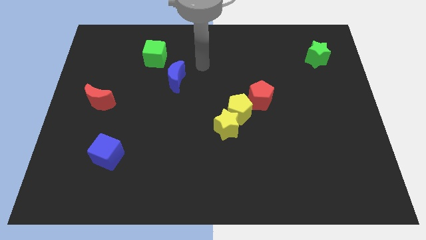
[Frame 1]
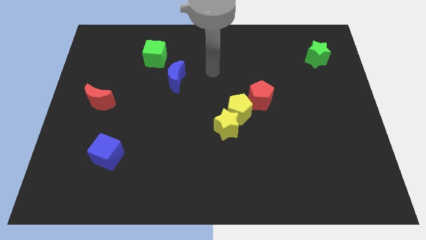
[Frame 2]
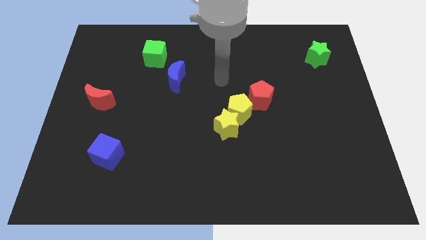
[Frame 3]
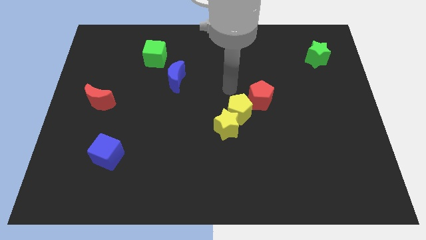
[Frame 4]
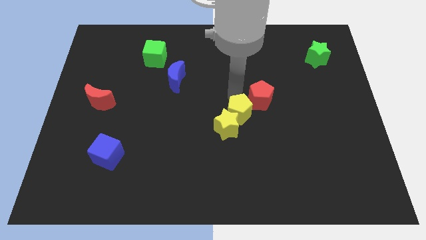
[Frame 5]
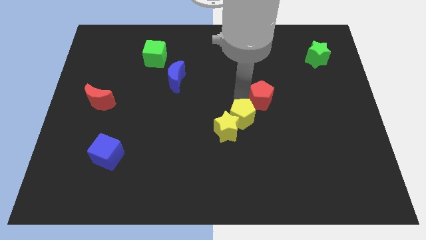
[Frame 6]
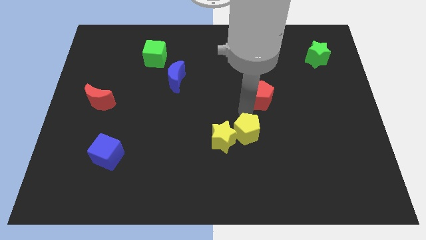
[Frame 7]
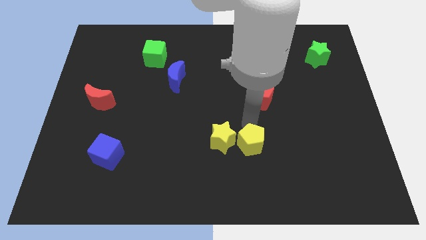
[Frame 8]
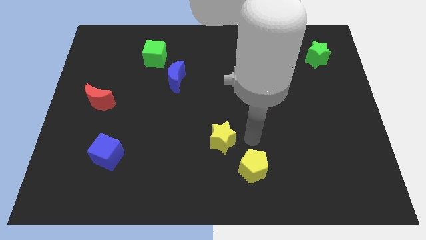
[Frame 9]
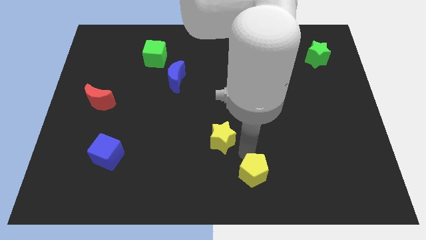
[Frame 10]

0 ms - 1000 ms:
move the yellow star away from the yellow pentagon

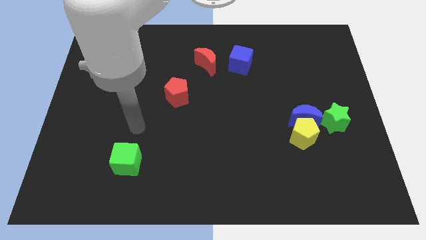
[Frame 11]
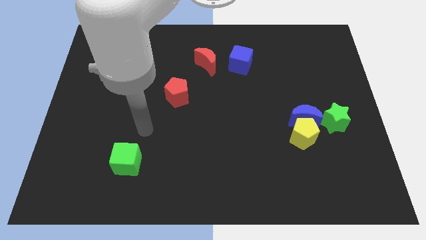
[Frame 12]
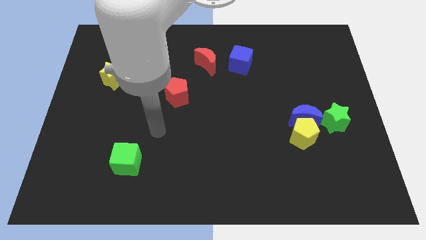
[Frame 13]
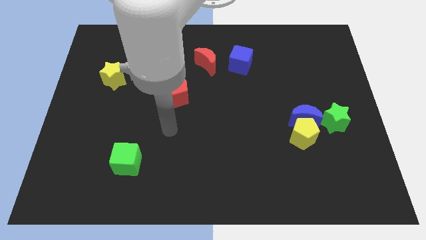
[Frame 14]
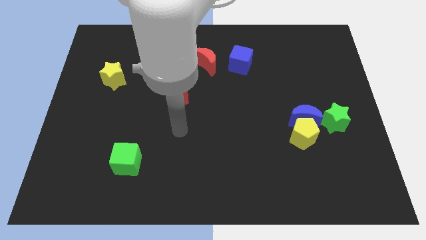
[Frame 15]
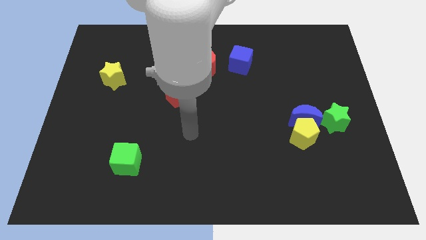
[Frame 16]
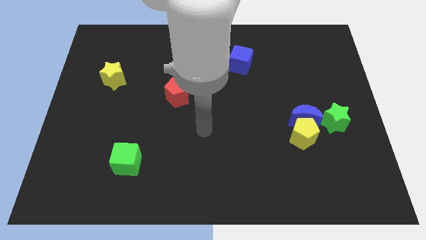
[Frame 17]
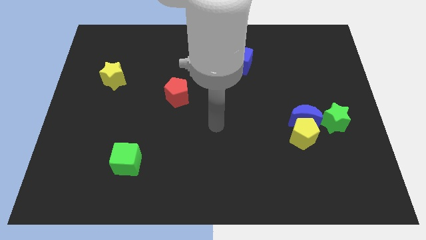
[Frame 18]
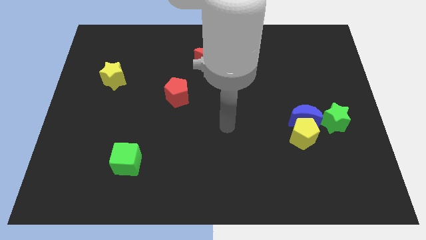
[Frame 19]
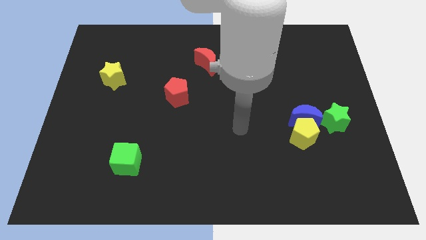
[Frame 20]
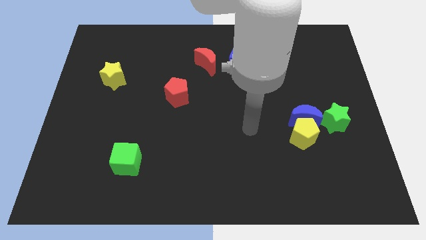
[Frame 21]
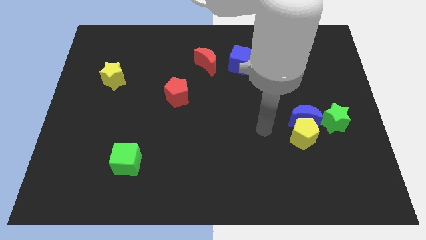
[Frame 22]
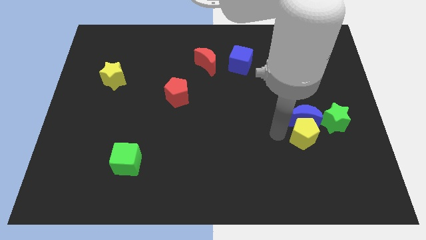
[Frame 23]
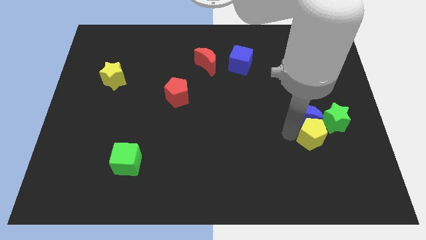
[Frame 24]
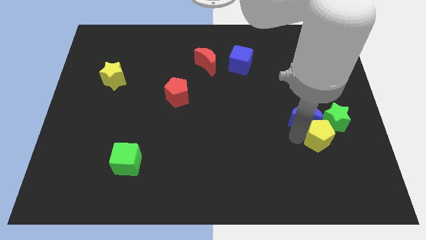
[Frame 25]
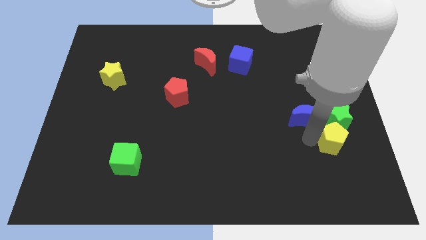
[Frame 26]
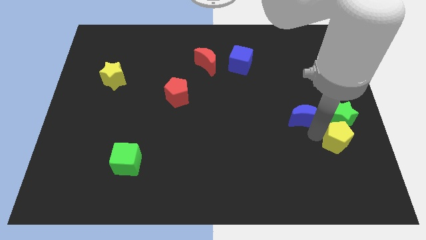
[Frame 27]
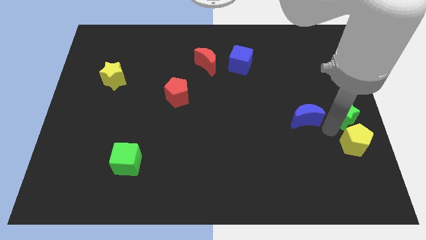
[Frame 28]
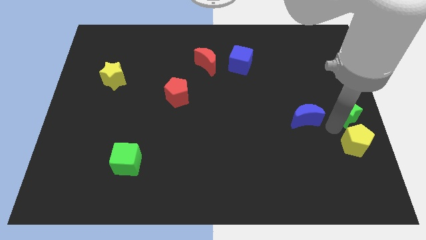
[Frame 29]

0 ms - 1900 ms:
separate the blue moon from the yellow pentagon and green star

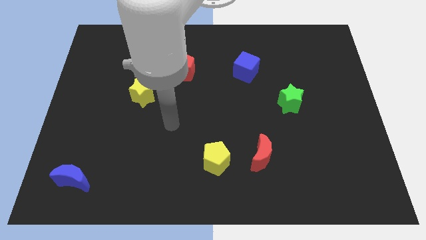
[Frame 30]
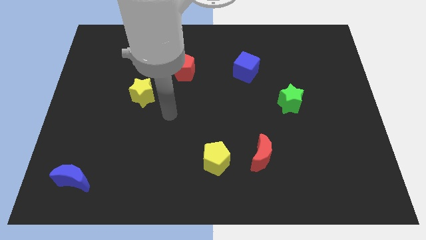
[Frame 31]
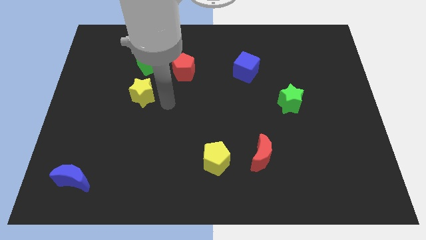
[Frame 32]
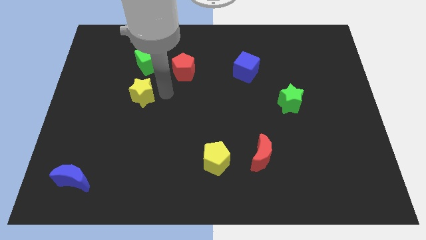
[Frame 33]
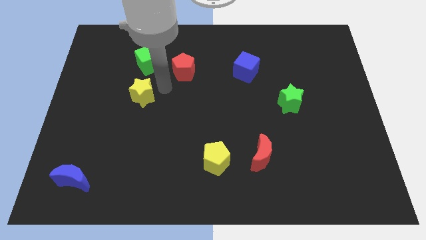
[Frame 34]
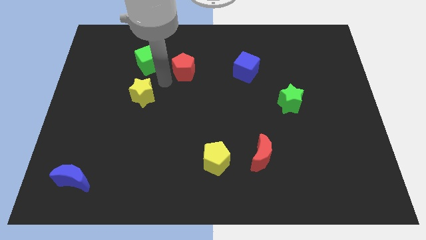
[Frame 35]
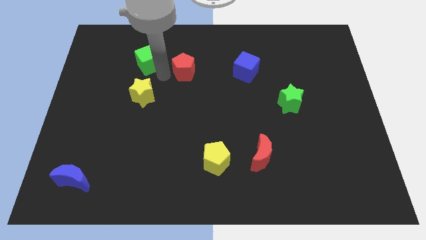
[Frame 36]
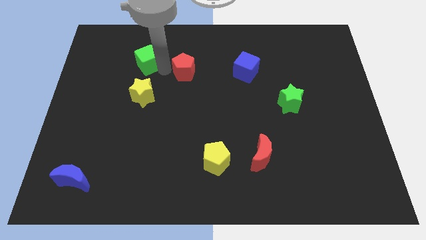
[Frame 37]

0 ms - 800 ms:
move the red pentagon away from the green cube

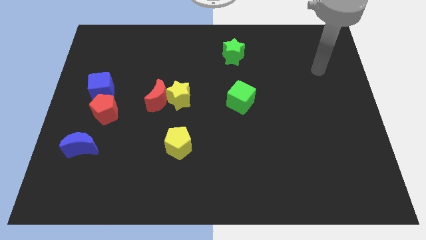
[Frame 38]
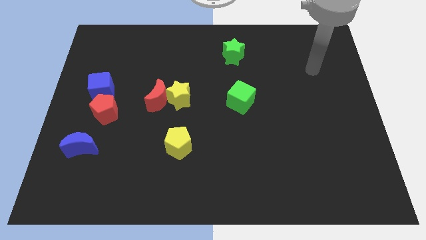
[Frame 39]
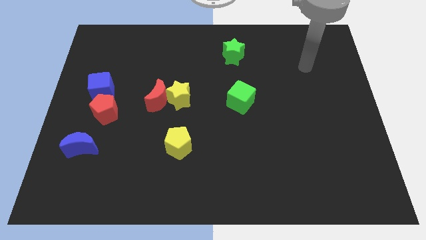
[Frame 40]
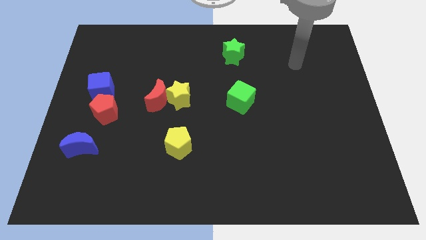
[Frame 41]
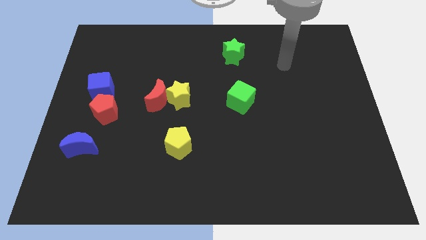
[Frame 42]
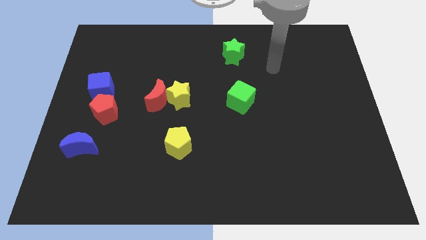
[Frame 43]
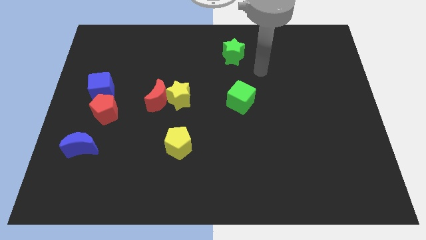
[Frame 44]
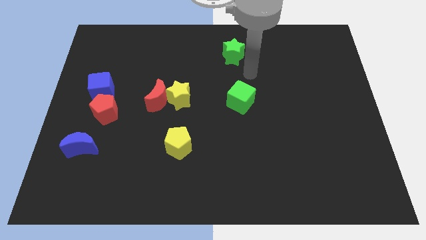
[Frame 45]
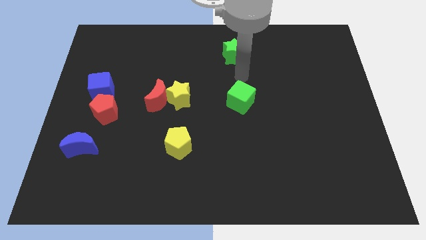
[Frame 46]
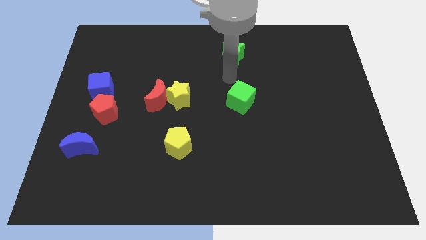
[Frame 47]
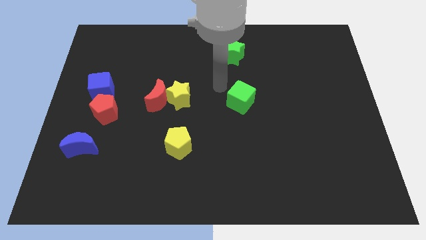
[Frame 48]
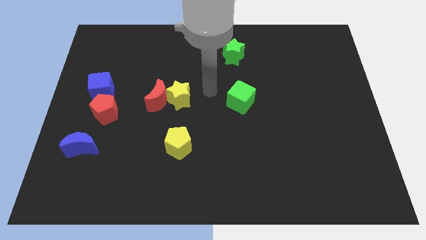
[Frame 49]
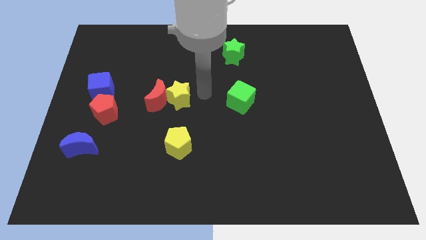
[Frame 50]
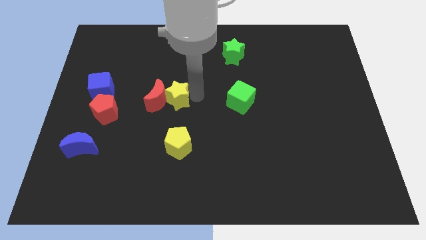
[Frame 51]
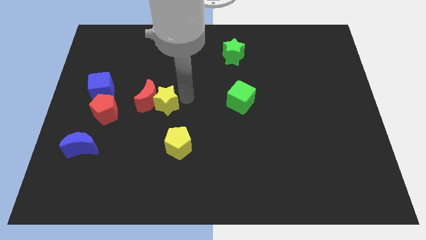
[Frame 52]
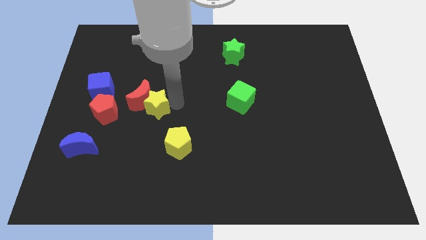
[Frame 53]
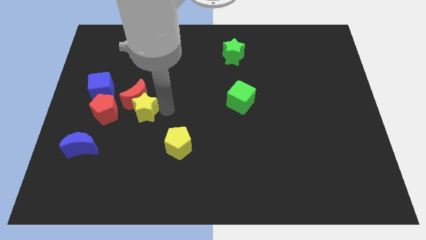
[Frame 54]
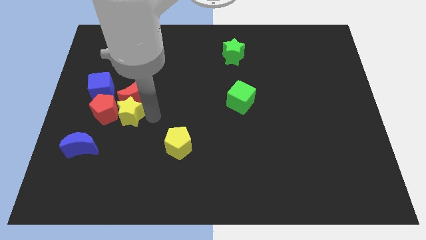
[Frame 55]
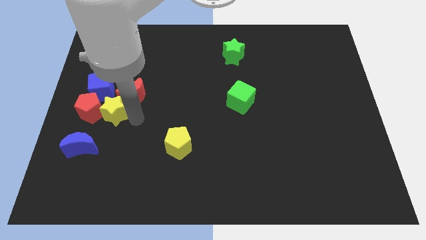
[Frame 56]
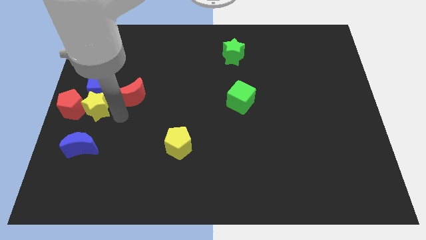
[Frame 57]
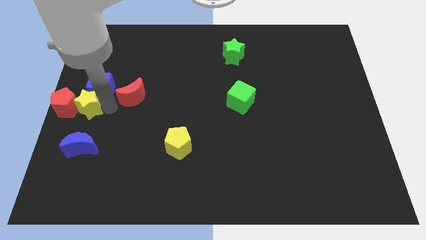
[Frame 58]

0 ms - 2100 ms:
move the red moon away from the yellow star

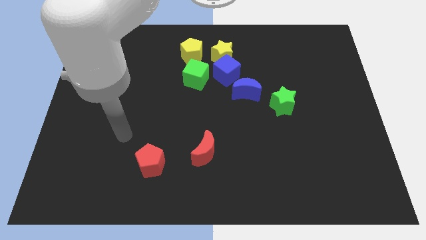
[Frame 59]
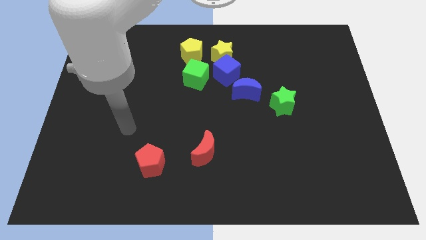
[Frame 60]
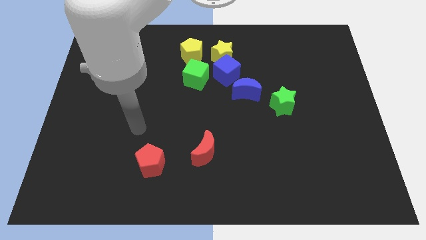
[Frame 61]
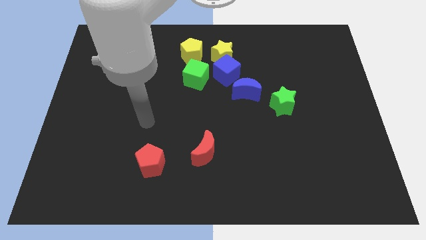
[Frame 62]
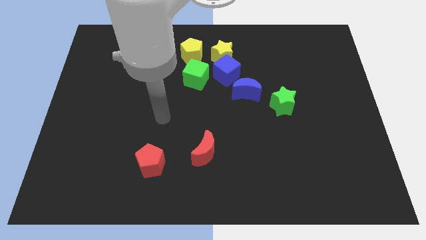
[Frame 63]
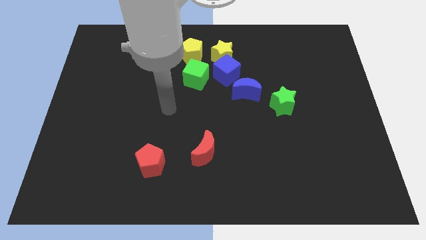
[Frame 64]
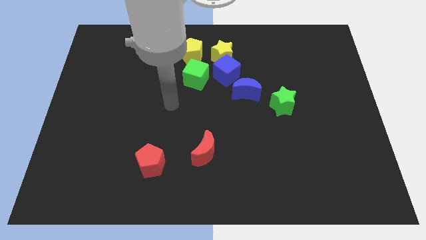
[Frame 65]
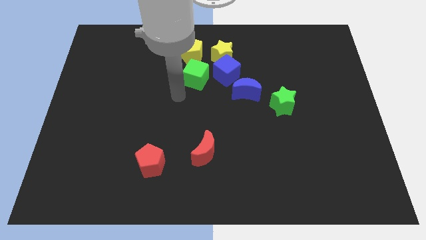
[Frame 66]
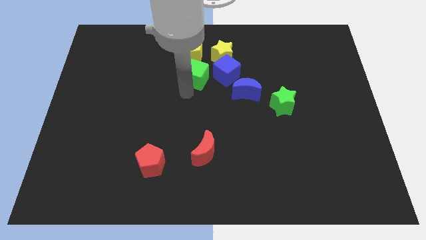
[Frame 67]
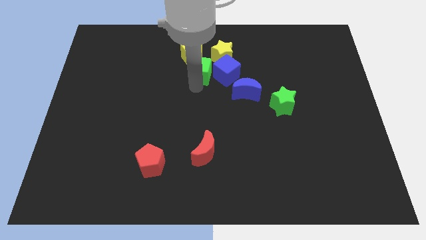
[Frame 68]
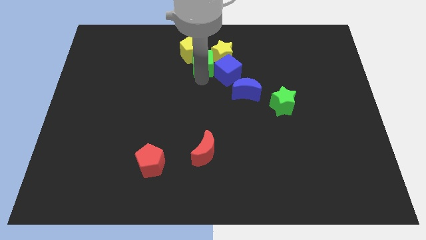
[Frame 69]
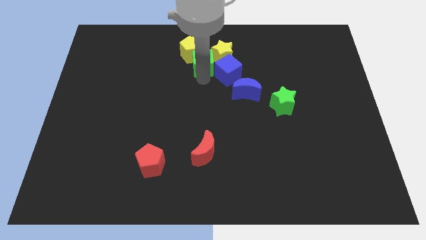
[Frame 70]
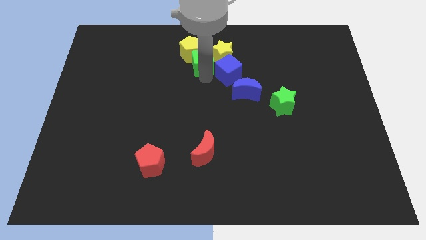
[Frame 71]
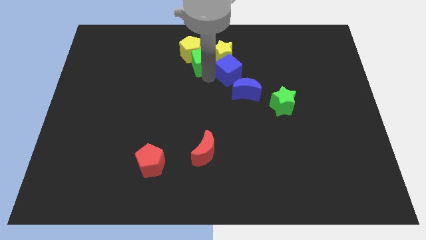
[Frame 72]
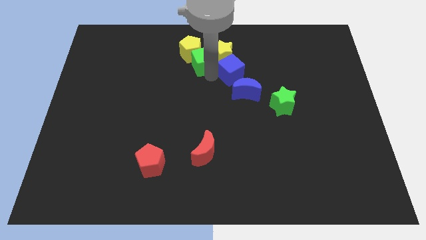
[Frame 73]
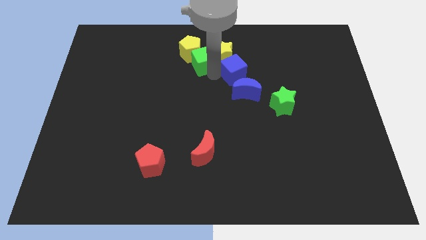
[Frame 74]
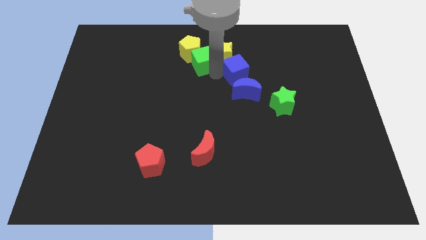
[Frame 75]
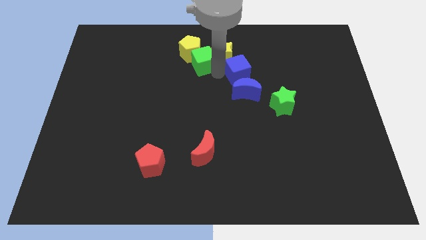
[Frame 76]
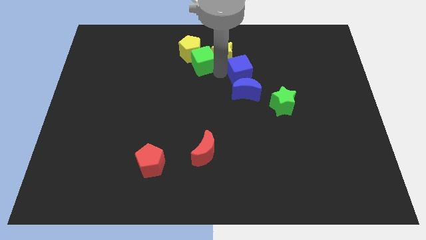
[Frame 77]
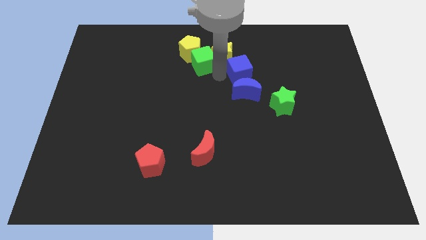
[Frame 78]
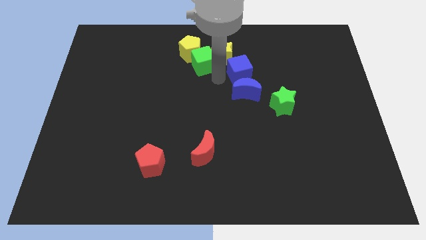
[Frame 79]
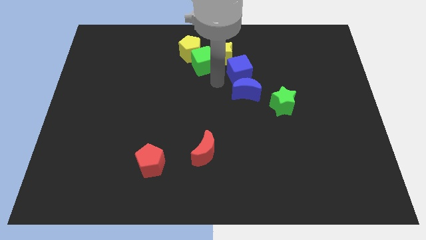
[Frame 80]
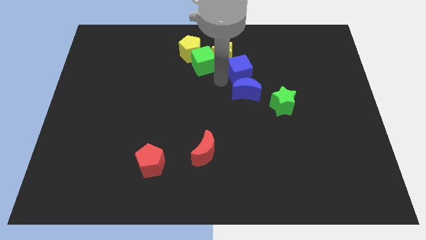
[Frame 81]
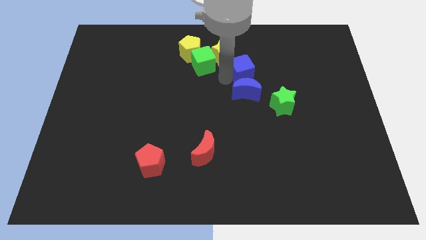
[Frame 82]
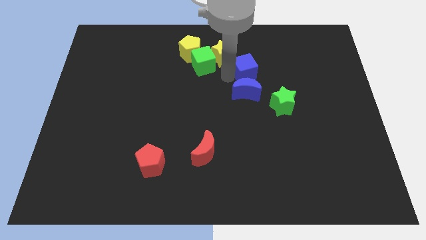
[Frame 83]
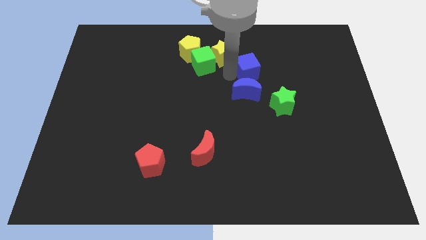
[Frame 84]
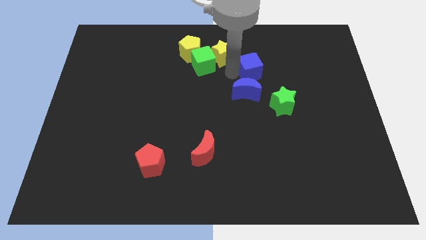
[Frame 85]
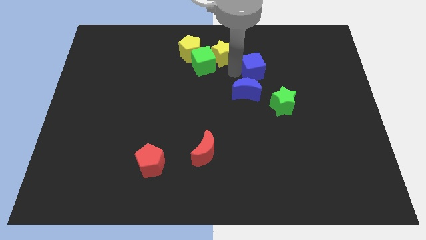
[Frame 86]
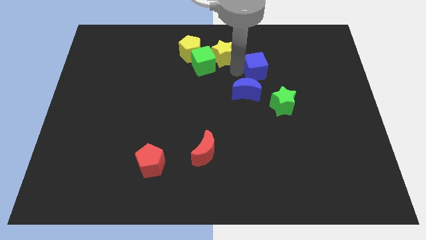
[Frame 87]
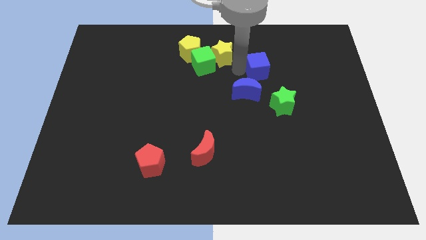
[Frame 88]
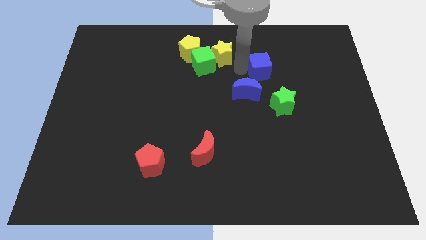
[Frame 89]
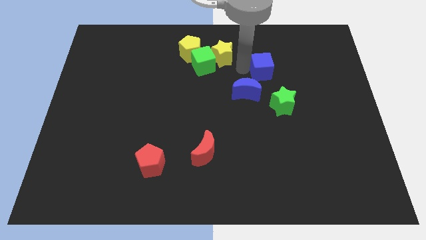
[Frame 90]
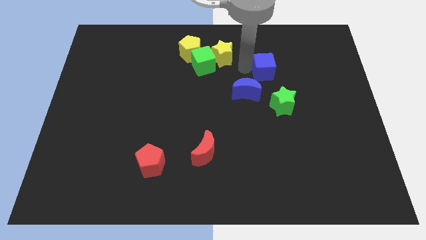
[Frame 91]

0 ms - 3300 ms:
separate the blue cube from the yellow star, blue moon, and green cube
